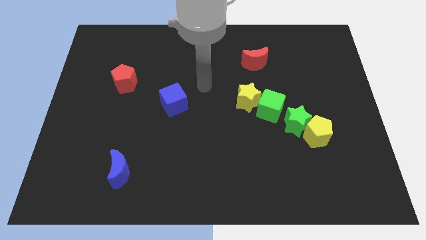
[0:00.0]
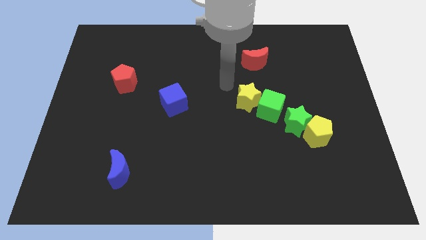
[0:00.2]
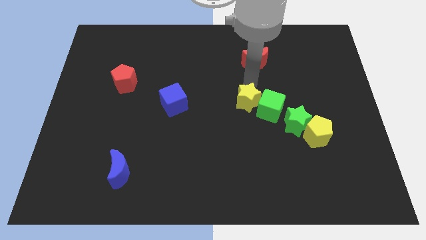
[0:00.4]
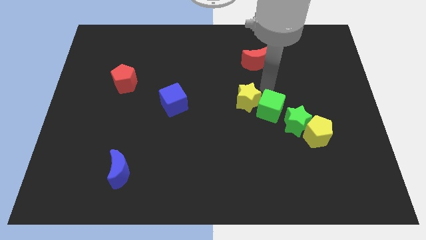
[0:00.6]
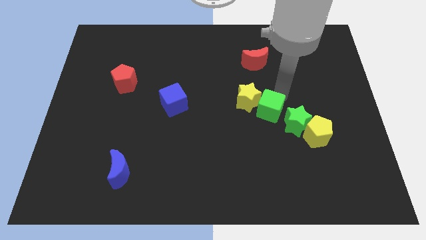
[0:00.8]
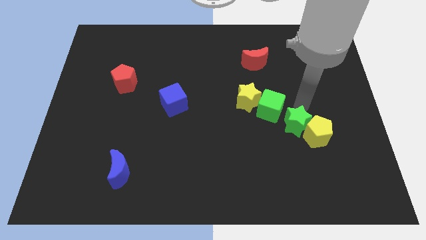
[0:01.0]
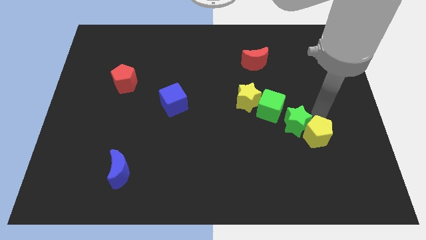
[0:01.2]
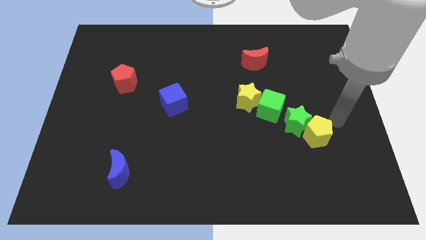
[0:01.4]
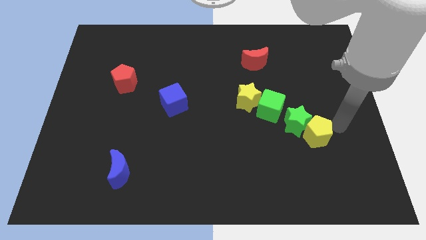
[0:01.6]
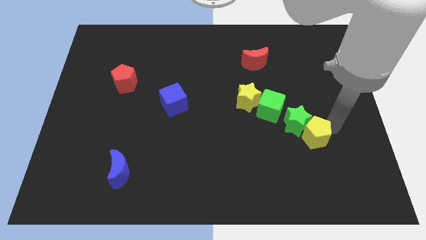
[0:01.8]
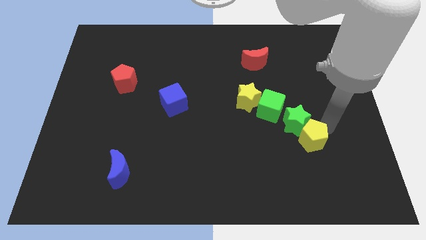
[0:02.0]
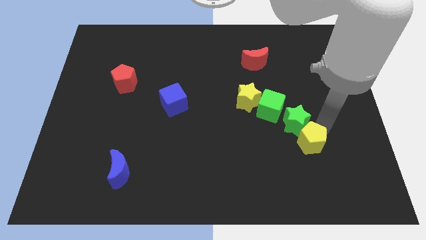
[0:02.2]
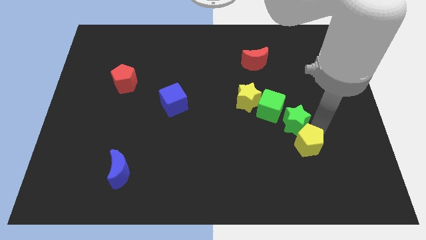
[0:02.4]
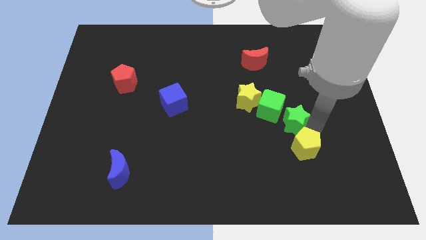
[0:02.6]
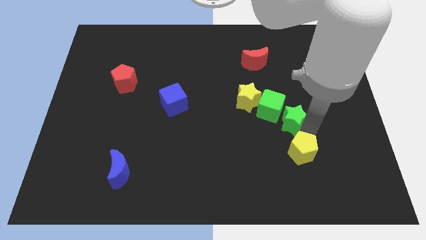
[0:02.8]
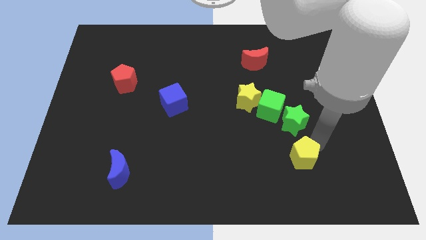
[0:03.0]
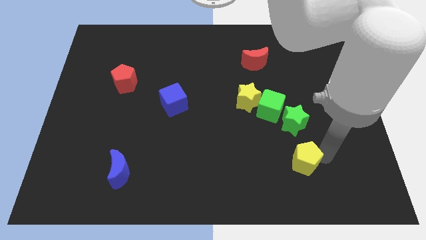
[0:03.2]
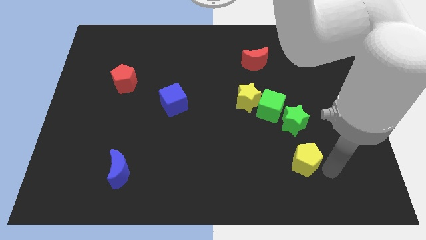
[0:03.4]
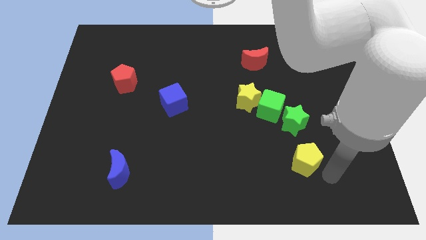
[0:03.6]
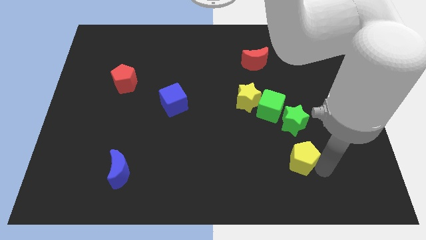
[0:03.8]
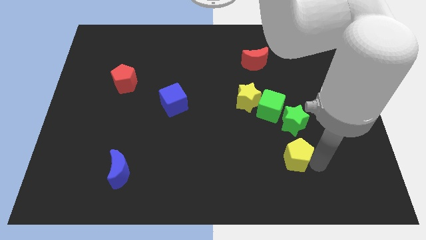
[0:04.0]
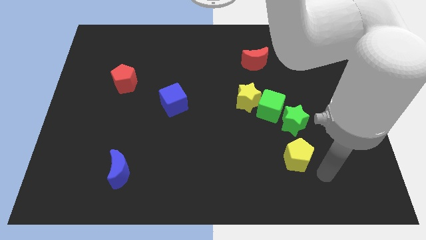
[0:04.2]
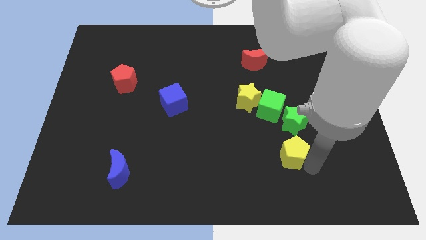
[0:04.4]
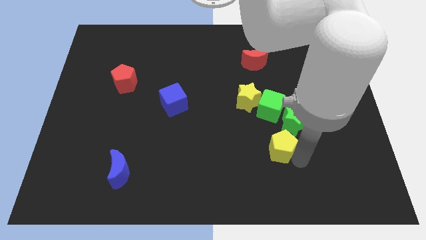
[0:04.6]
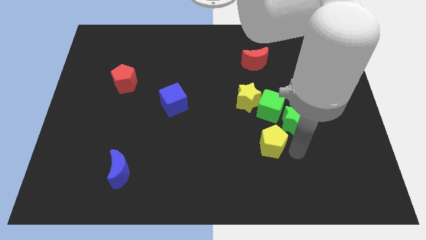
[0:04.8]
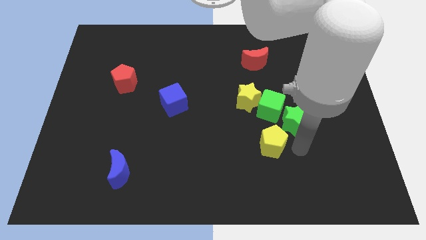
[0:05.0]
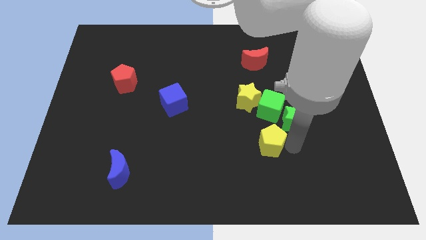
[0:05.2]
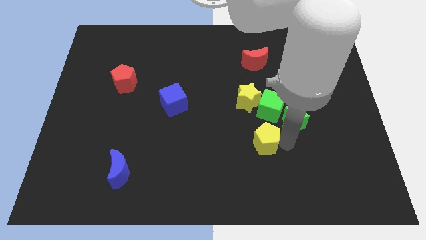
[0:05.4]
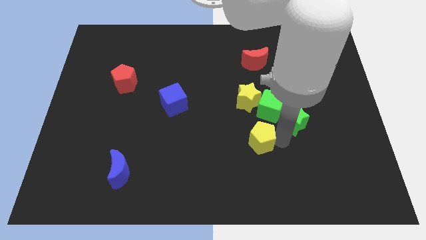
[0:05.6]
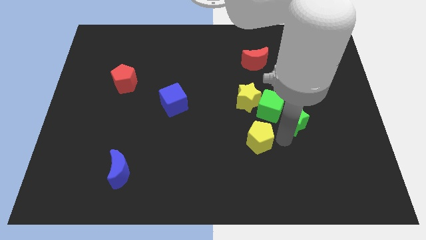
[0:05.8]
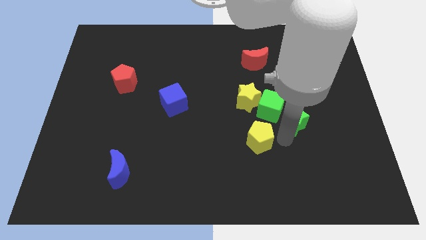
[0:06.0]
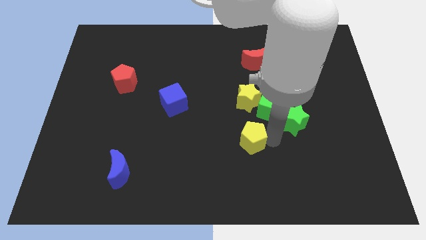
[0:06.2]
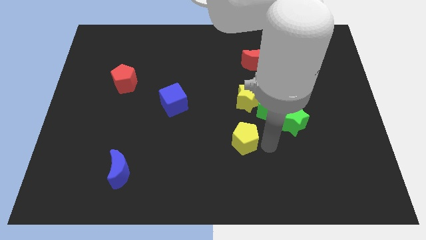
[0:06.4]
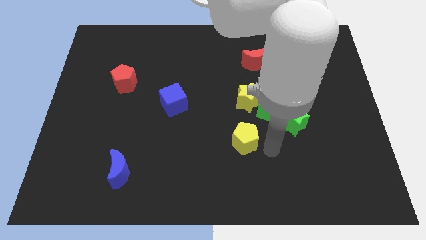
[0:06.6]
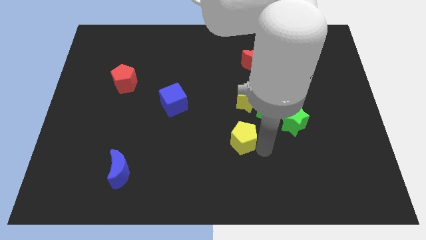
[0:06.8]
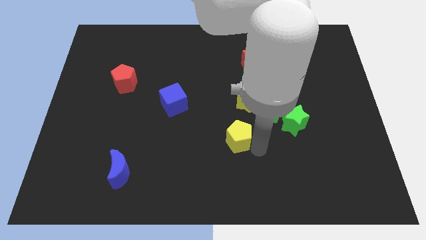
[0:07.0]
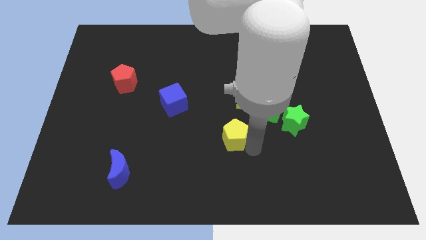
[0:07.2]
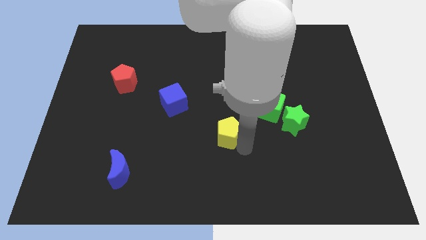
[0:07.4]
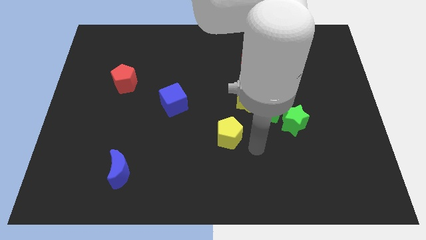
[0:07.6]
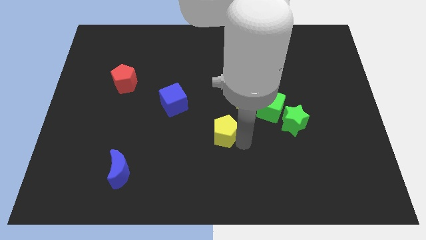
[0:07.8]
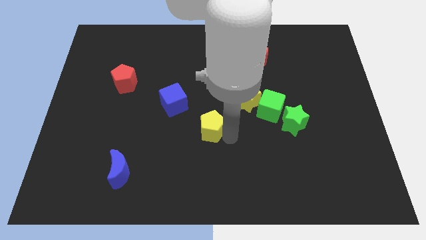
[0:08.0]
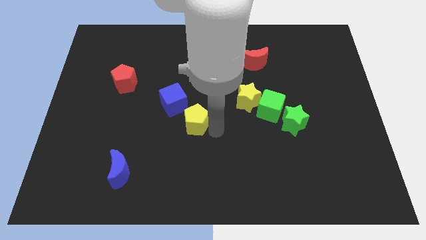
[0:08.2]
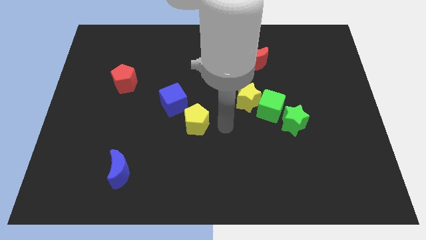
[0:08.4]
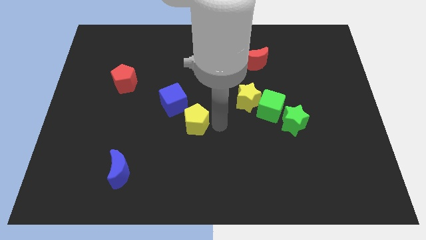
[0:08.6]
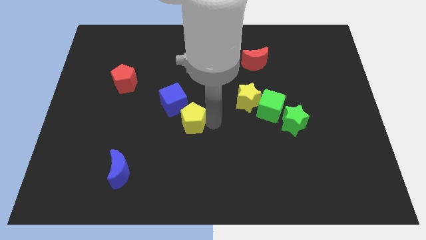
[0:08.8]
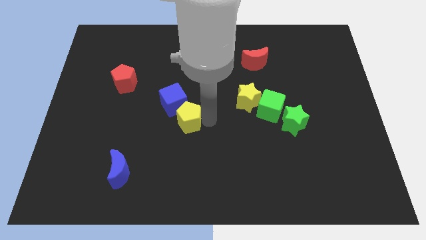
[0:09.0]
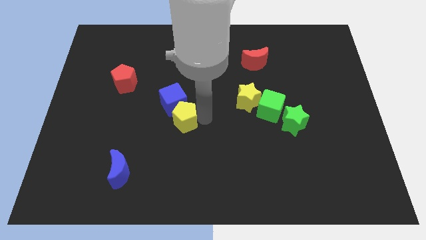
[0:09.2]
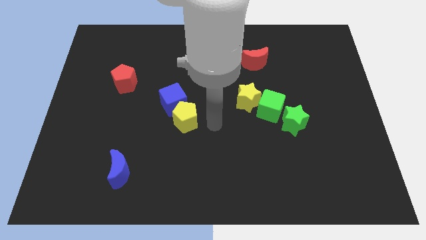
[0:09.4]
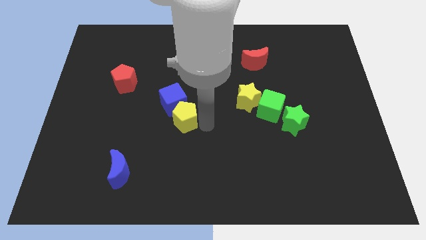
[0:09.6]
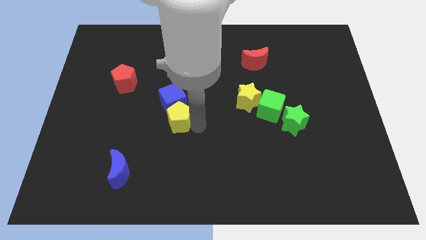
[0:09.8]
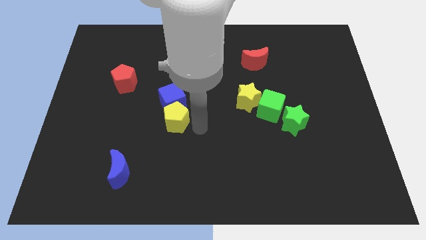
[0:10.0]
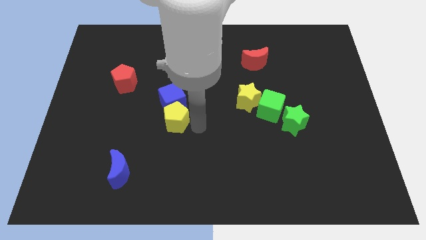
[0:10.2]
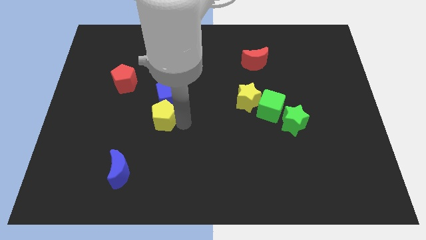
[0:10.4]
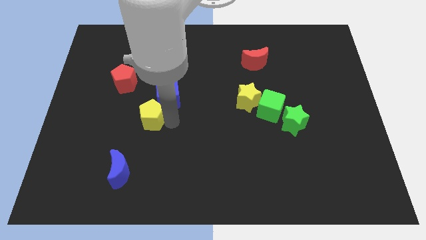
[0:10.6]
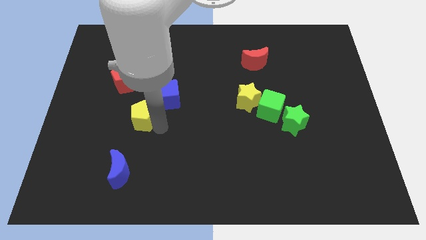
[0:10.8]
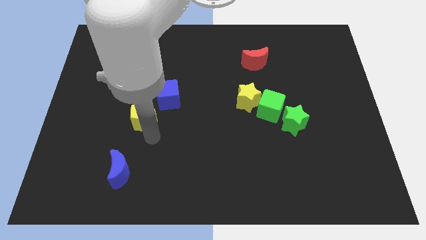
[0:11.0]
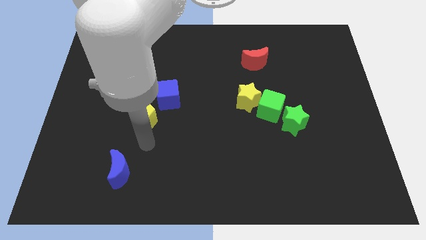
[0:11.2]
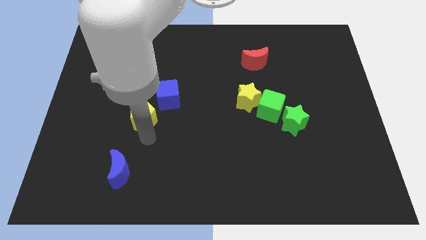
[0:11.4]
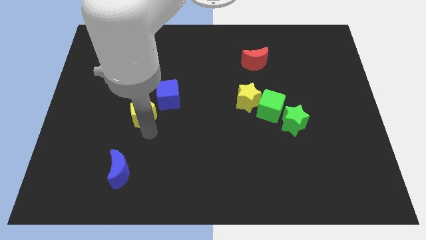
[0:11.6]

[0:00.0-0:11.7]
slide the yellow pentagon to the bottom right side of the red pentagon

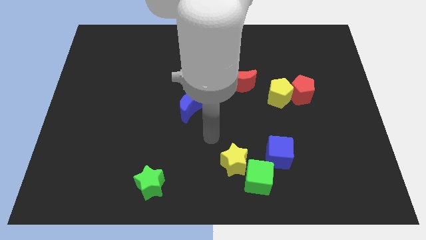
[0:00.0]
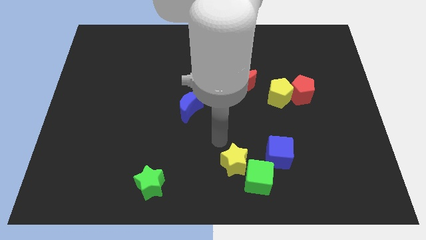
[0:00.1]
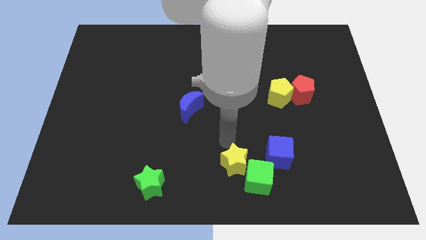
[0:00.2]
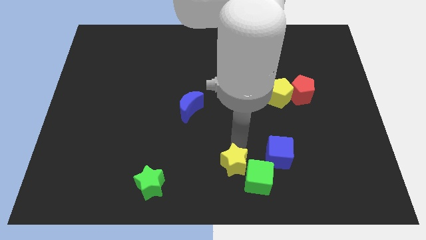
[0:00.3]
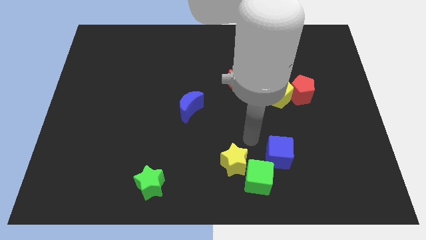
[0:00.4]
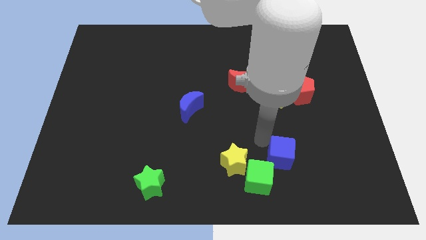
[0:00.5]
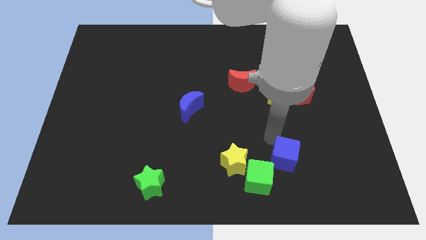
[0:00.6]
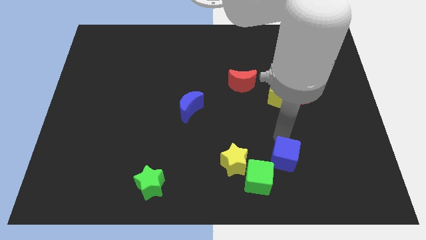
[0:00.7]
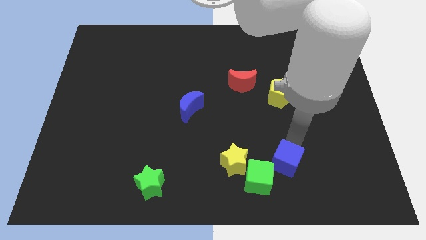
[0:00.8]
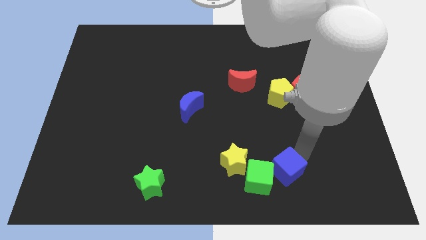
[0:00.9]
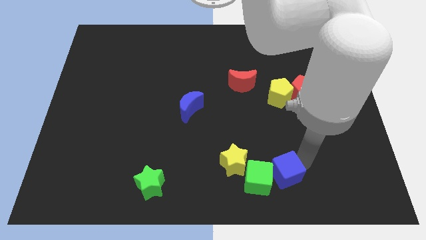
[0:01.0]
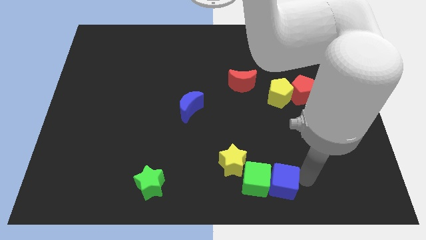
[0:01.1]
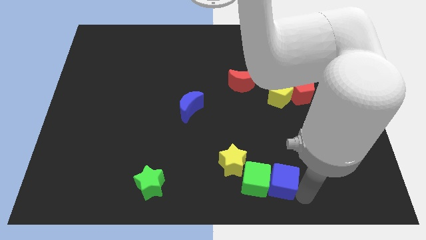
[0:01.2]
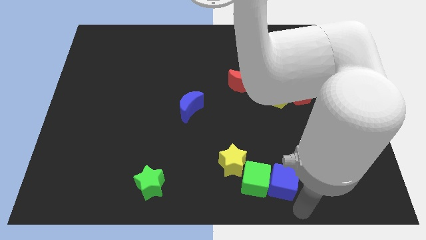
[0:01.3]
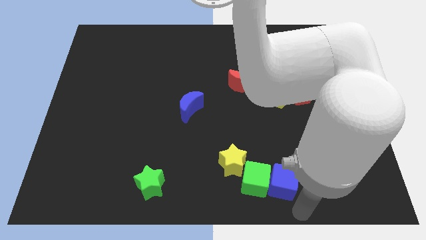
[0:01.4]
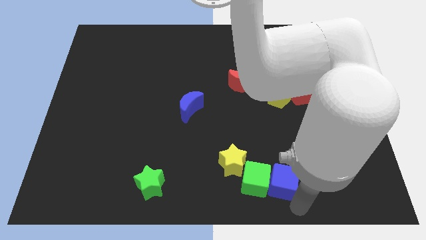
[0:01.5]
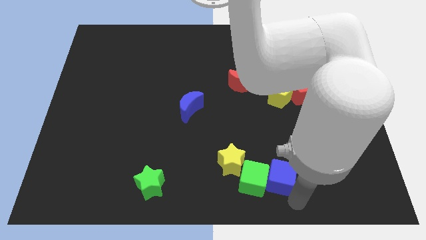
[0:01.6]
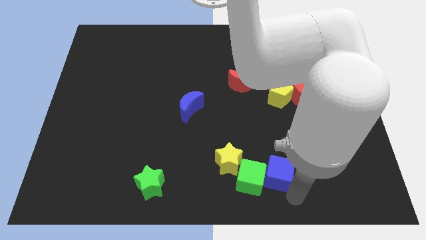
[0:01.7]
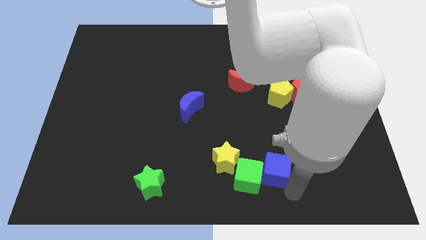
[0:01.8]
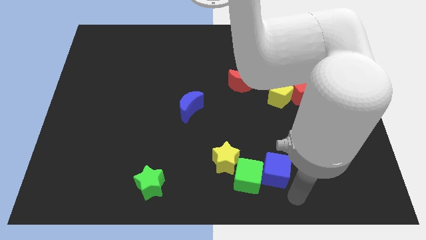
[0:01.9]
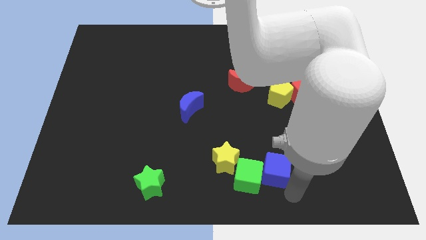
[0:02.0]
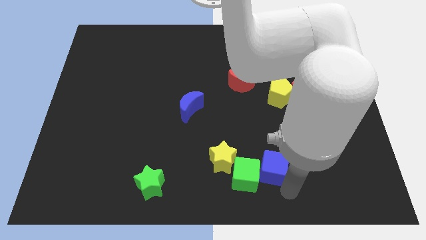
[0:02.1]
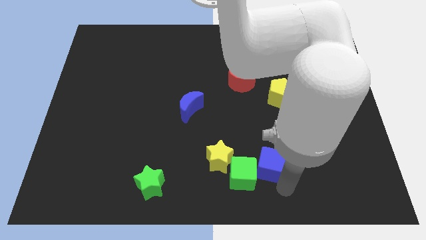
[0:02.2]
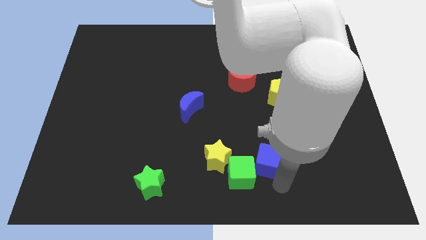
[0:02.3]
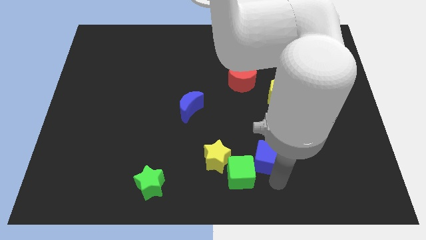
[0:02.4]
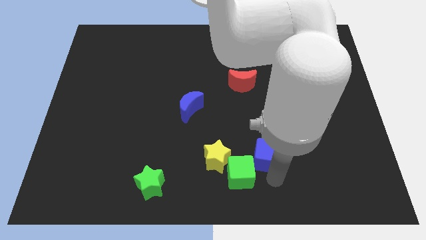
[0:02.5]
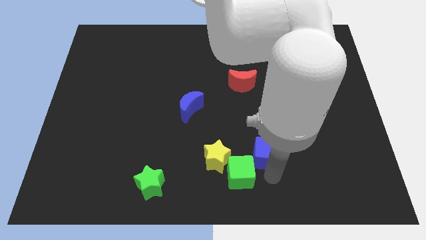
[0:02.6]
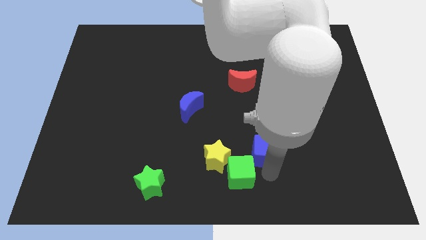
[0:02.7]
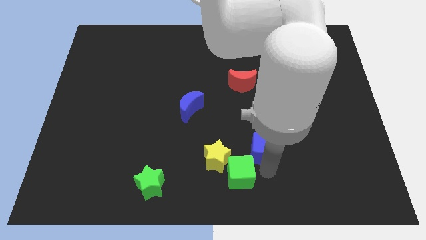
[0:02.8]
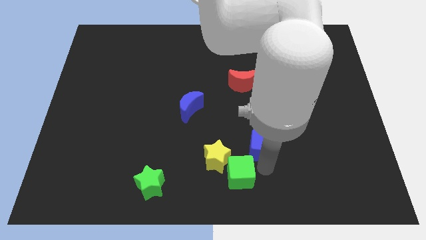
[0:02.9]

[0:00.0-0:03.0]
put the blue cube to the top right of the yellow star
